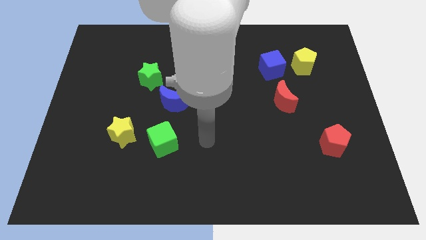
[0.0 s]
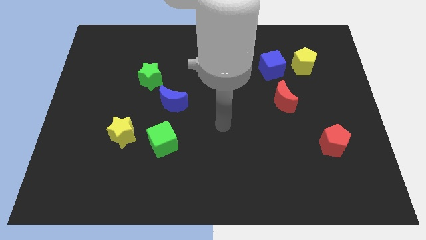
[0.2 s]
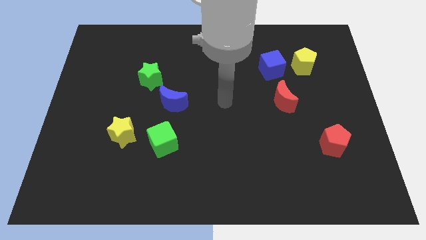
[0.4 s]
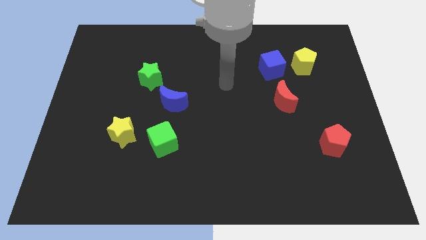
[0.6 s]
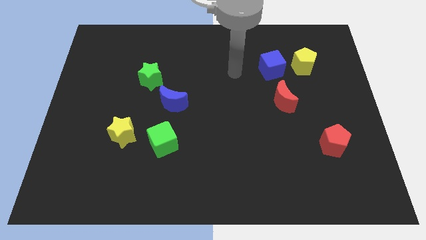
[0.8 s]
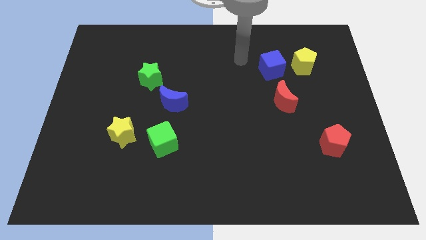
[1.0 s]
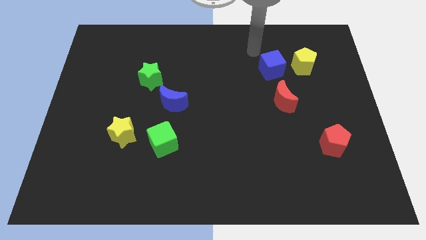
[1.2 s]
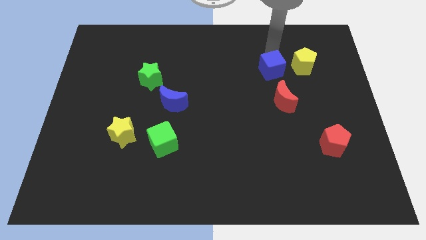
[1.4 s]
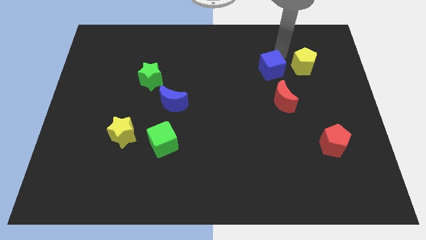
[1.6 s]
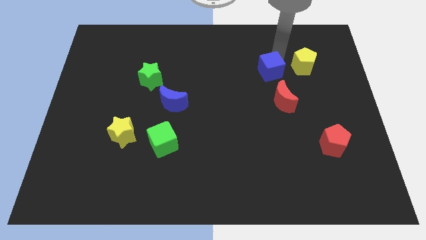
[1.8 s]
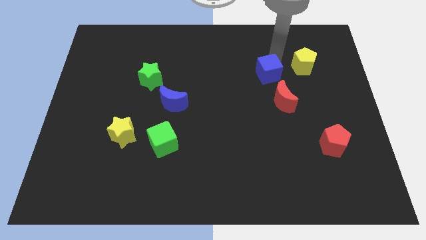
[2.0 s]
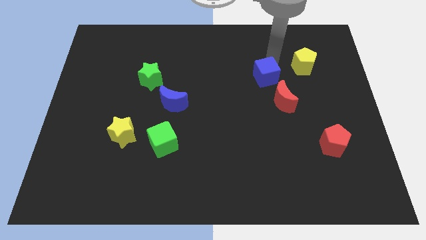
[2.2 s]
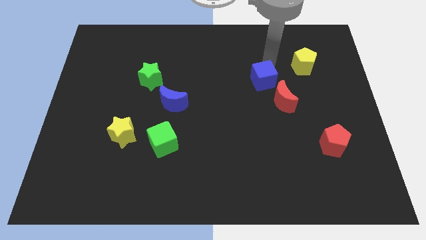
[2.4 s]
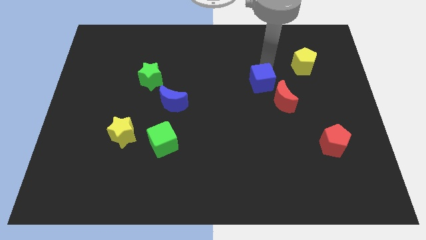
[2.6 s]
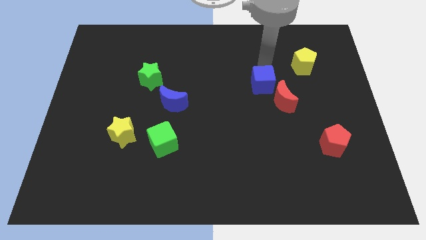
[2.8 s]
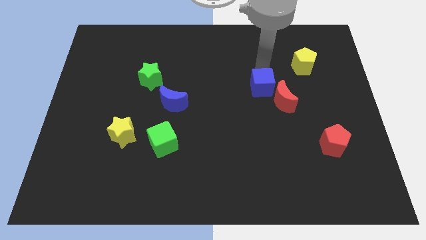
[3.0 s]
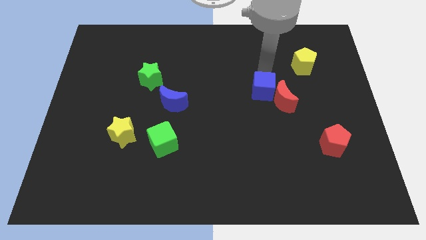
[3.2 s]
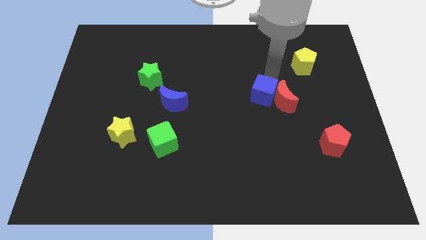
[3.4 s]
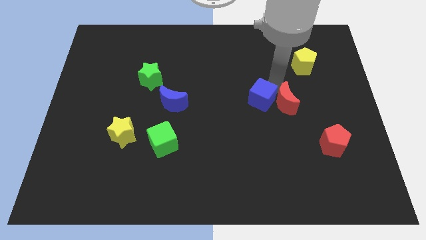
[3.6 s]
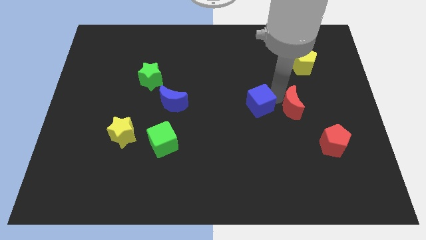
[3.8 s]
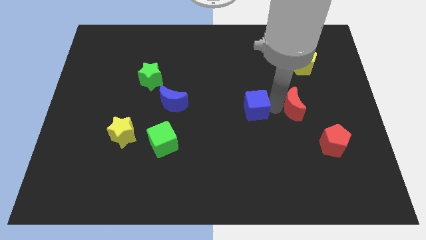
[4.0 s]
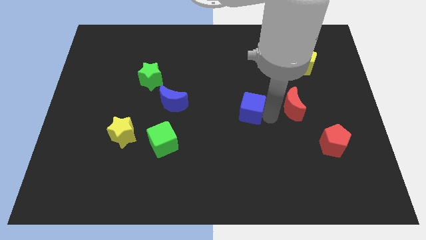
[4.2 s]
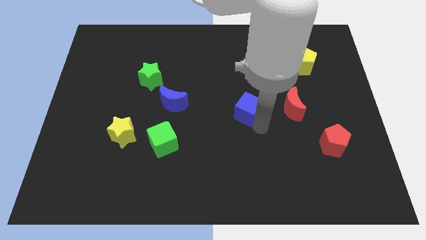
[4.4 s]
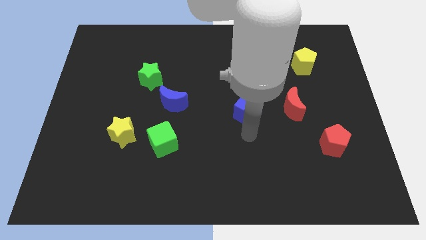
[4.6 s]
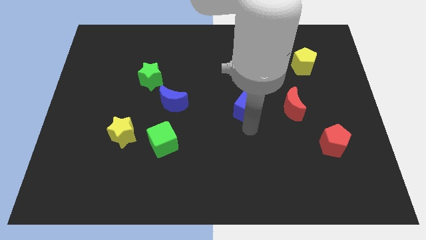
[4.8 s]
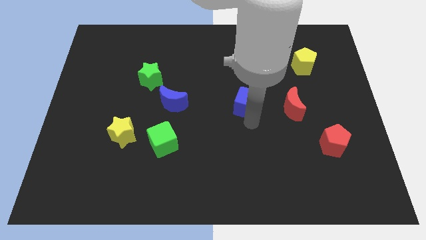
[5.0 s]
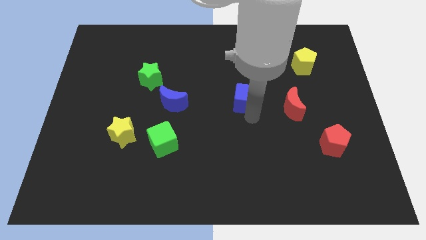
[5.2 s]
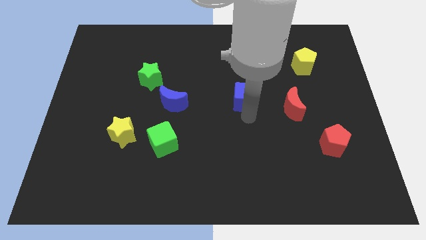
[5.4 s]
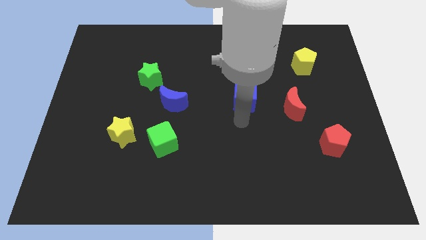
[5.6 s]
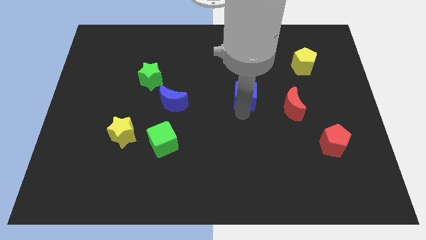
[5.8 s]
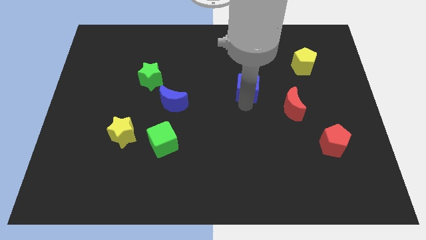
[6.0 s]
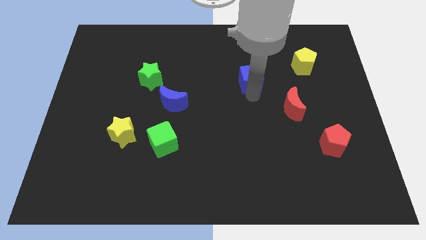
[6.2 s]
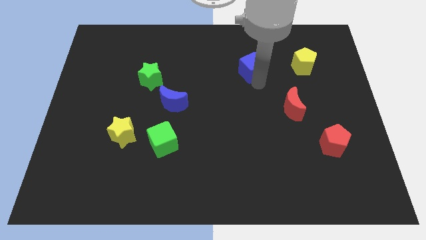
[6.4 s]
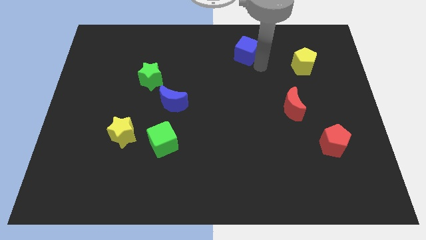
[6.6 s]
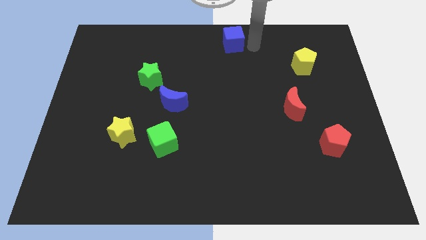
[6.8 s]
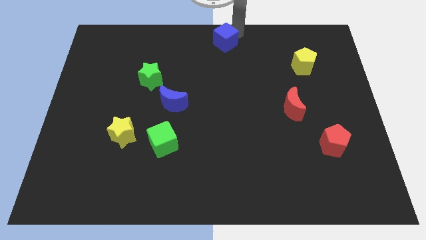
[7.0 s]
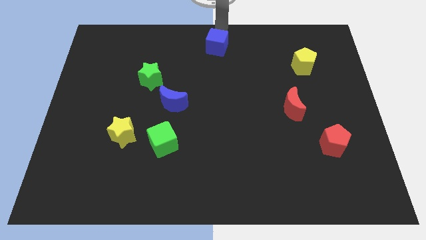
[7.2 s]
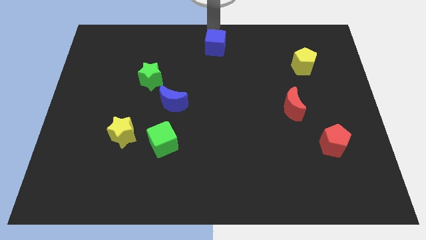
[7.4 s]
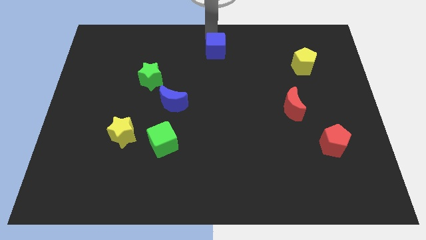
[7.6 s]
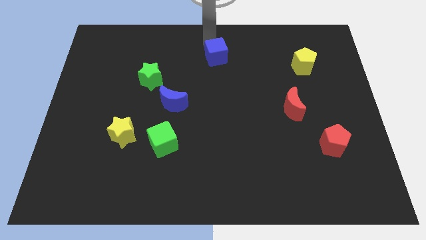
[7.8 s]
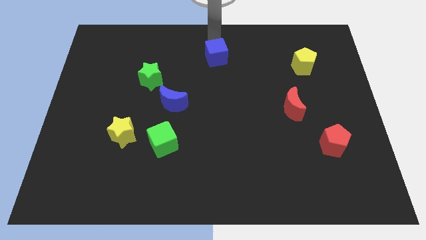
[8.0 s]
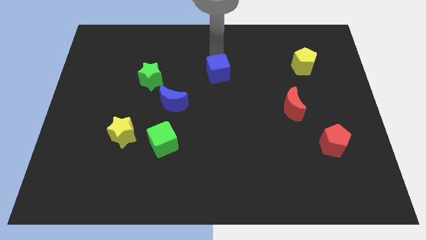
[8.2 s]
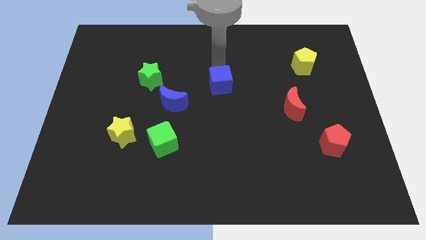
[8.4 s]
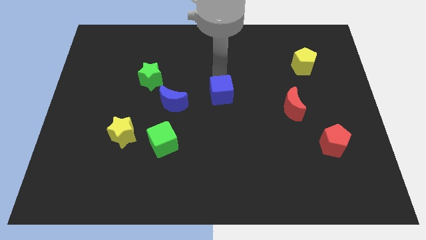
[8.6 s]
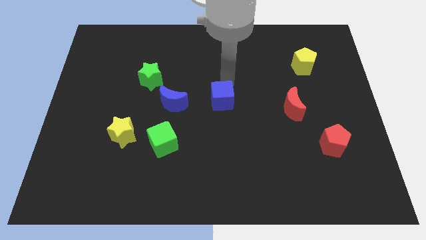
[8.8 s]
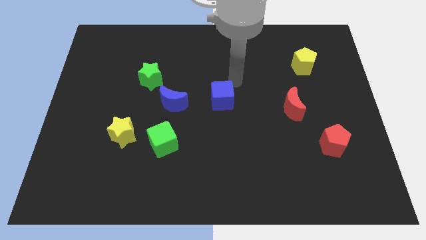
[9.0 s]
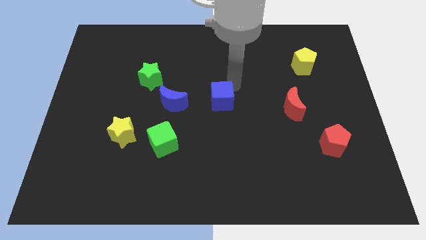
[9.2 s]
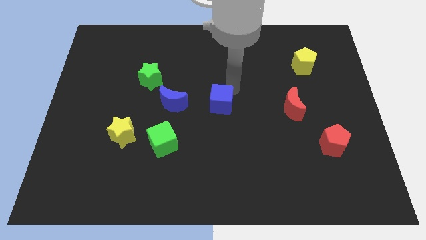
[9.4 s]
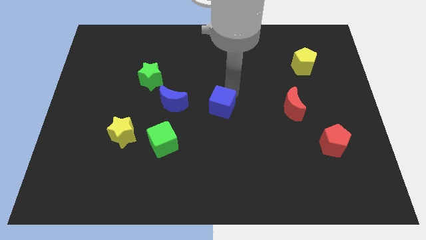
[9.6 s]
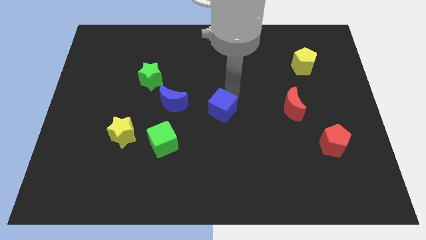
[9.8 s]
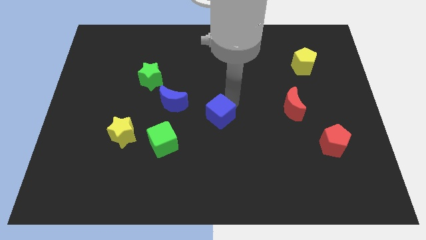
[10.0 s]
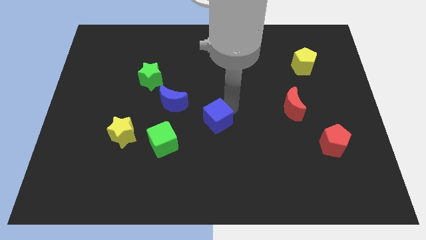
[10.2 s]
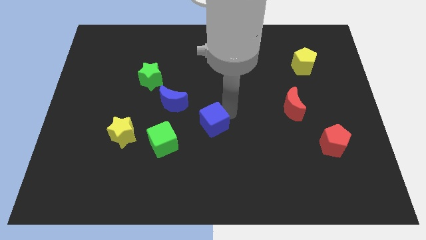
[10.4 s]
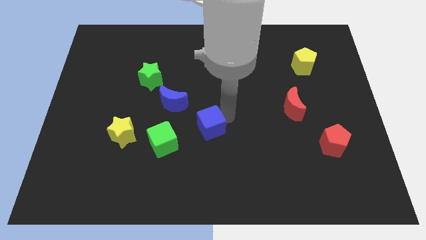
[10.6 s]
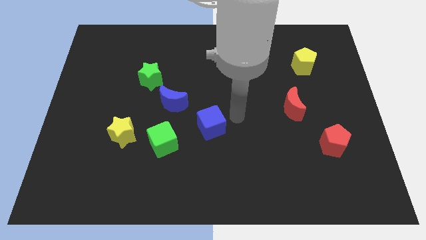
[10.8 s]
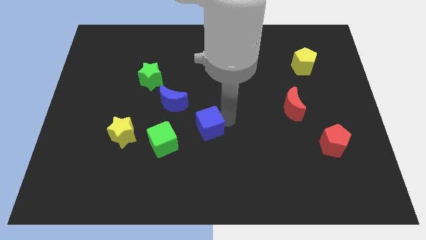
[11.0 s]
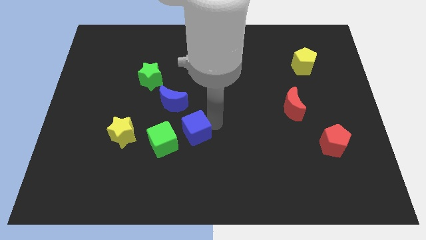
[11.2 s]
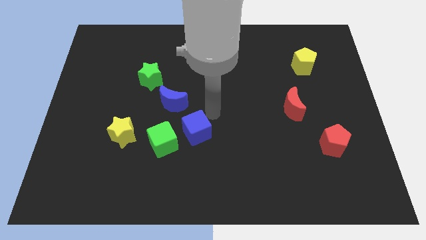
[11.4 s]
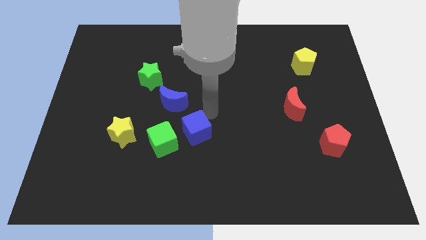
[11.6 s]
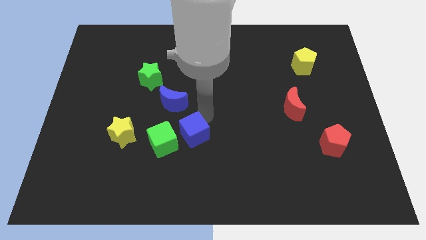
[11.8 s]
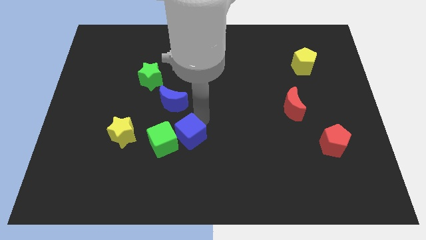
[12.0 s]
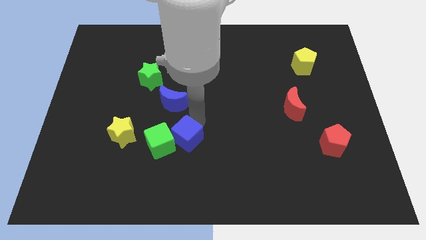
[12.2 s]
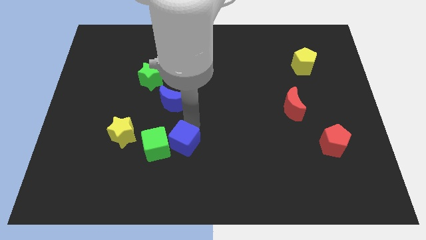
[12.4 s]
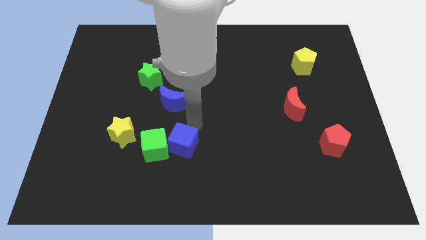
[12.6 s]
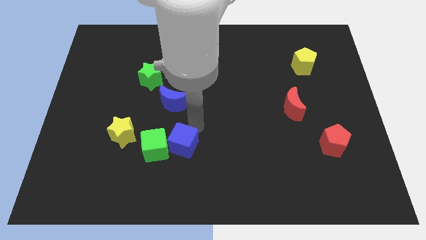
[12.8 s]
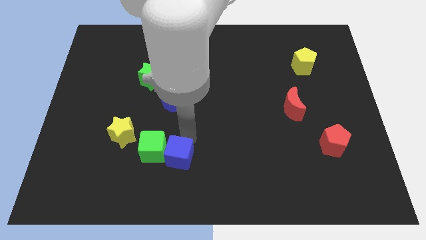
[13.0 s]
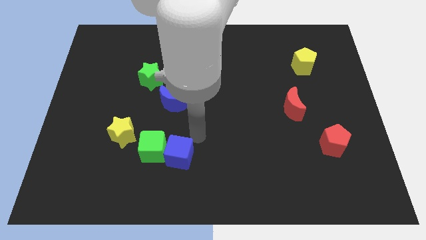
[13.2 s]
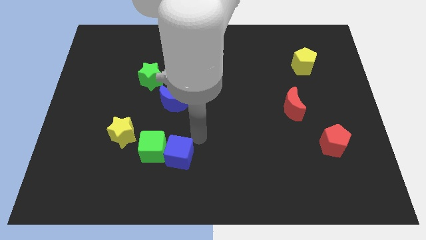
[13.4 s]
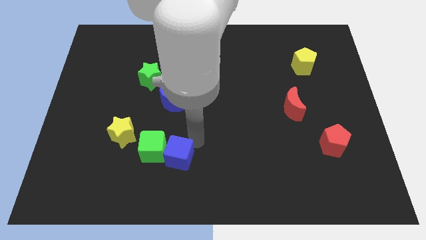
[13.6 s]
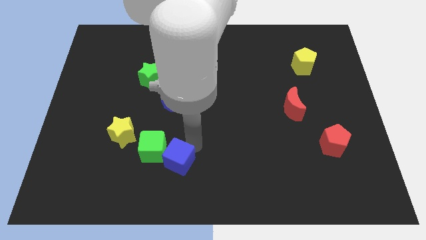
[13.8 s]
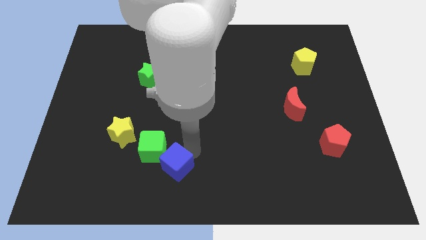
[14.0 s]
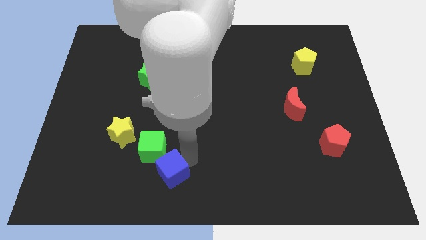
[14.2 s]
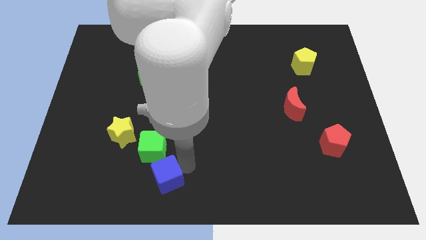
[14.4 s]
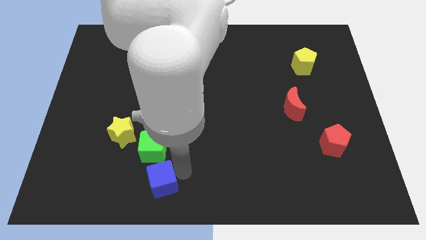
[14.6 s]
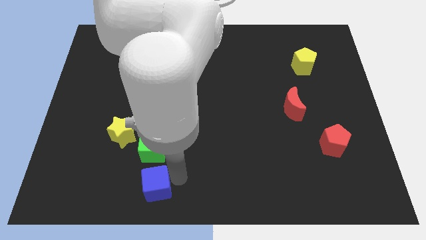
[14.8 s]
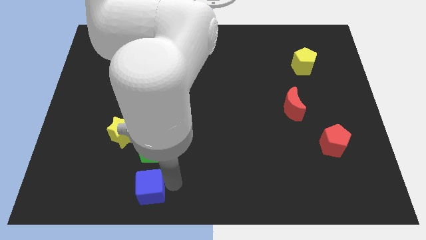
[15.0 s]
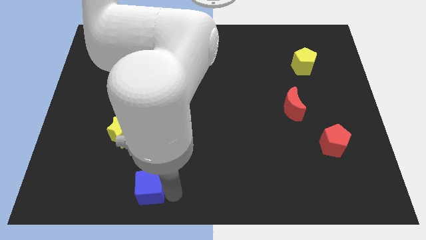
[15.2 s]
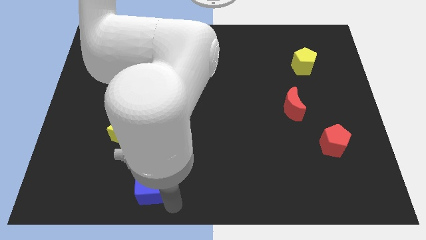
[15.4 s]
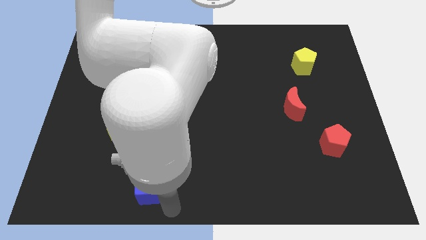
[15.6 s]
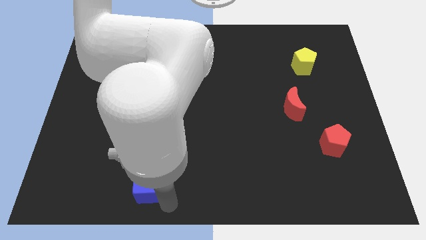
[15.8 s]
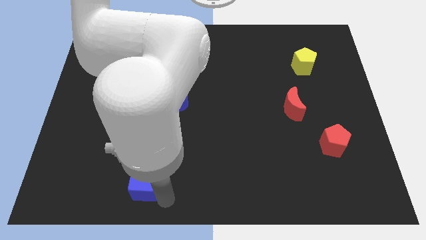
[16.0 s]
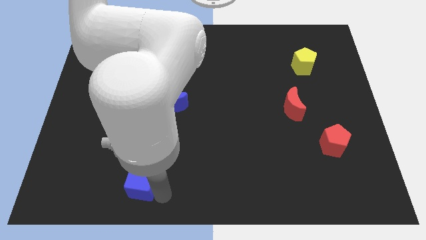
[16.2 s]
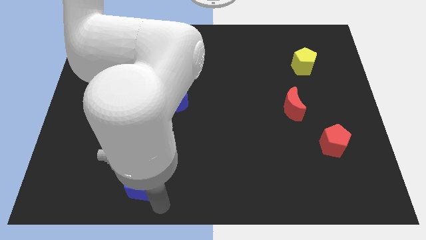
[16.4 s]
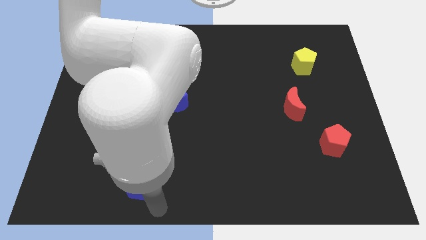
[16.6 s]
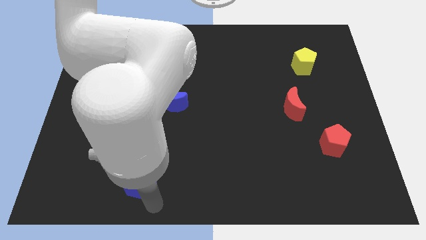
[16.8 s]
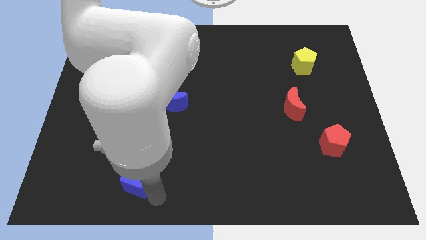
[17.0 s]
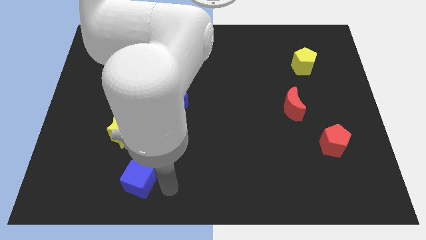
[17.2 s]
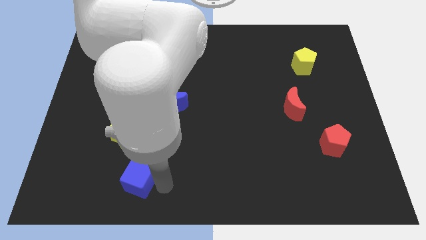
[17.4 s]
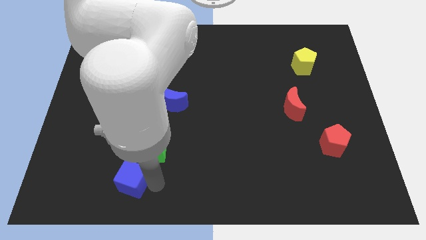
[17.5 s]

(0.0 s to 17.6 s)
move the blue cube below the yellow star
